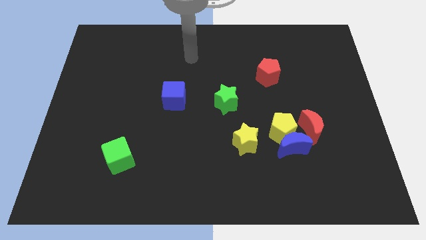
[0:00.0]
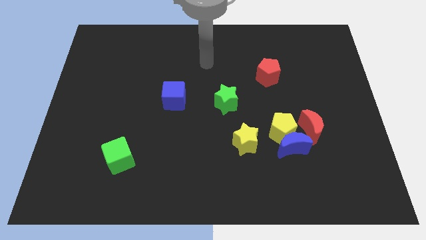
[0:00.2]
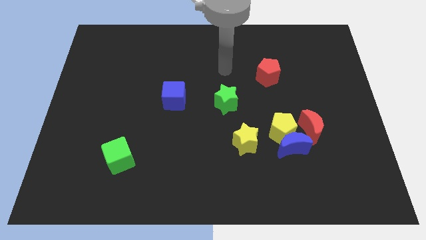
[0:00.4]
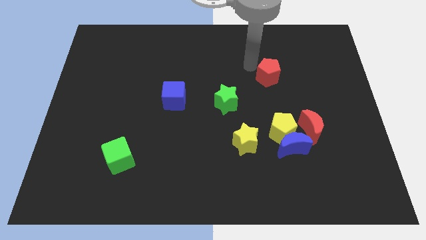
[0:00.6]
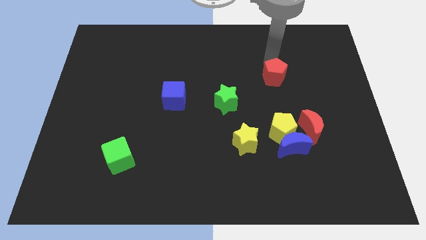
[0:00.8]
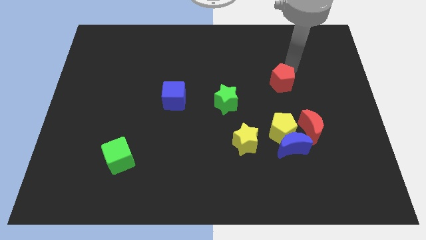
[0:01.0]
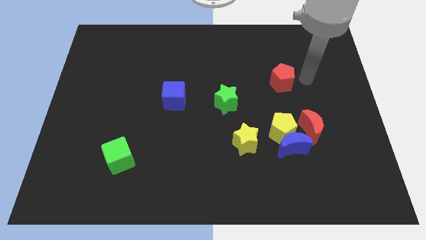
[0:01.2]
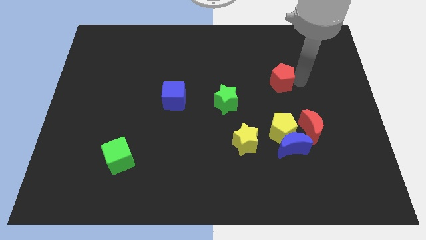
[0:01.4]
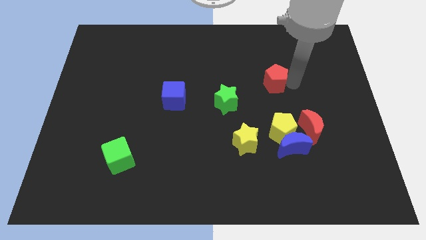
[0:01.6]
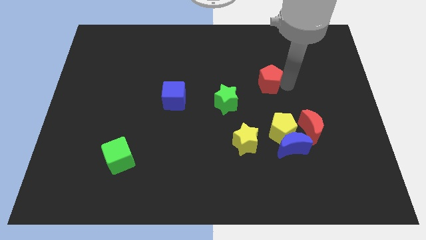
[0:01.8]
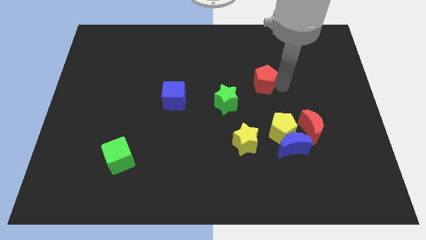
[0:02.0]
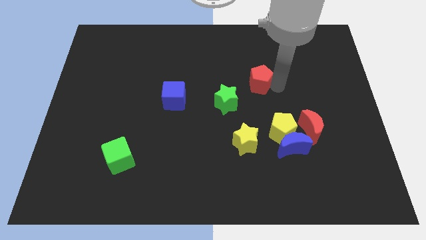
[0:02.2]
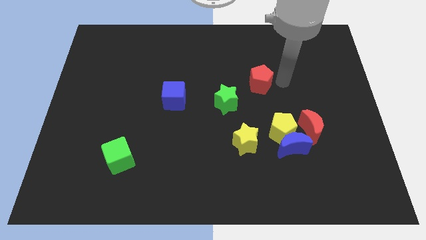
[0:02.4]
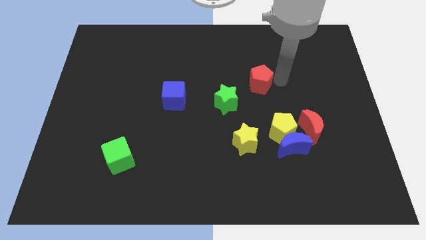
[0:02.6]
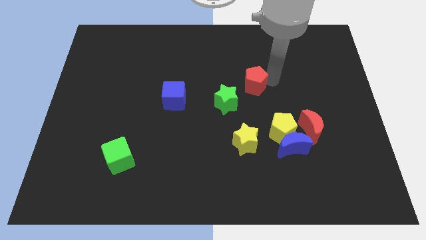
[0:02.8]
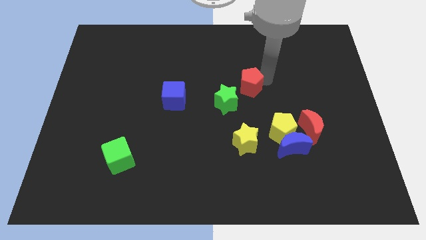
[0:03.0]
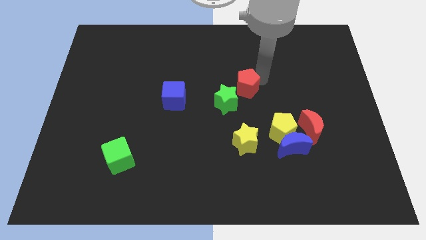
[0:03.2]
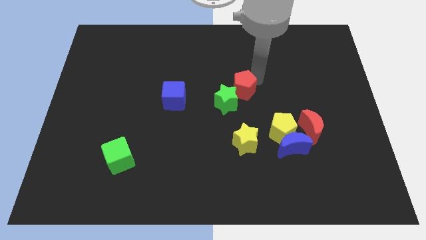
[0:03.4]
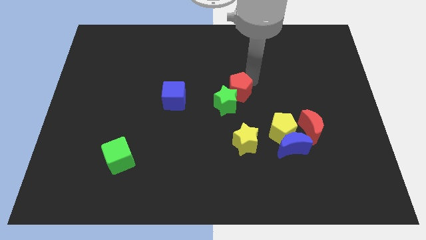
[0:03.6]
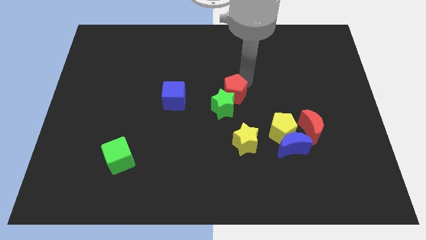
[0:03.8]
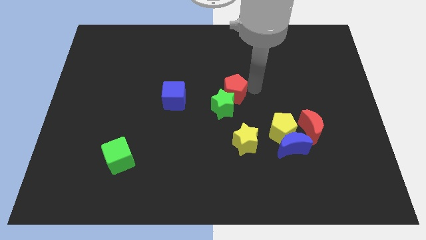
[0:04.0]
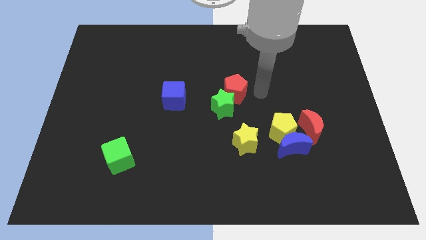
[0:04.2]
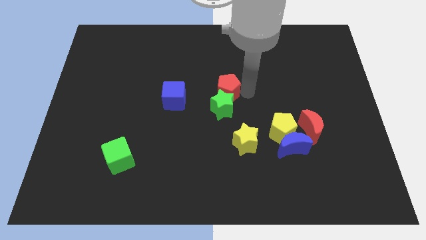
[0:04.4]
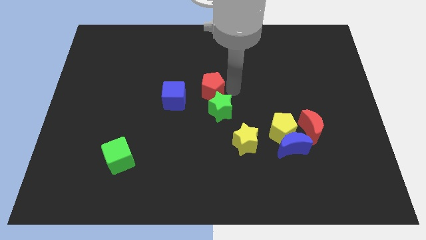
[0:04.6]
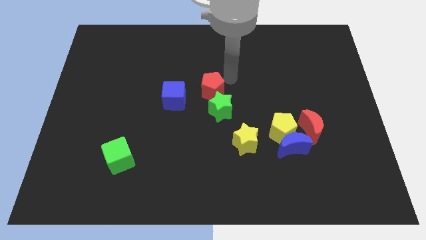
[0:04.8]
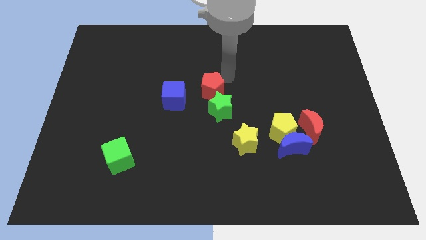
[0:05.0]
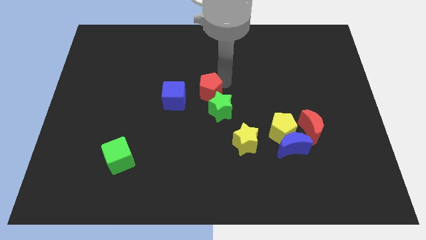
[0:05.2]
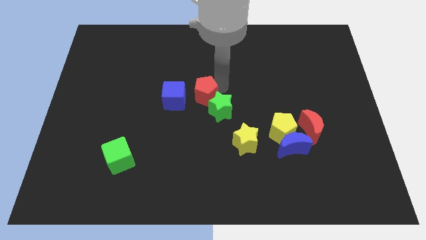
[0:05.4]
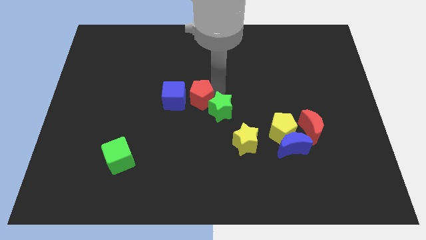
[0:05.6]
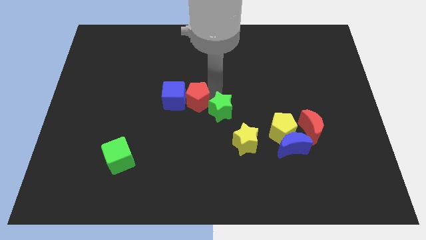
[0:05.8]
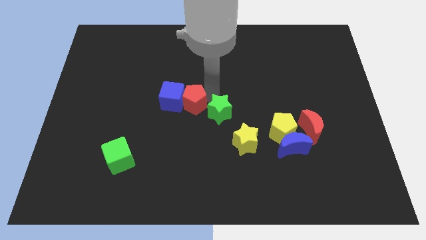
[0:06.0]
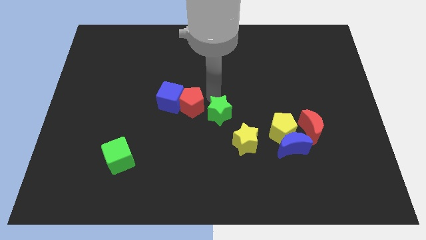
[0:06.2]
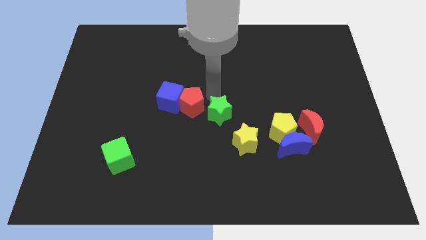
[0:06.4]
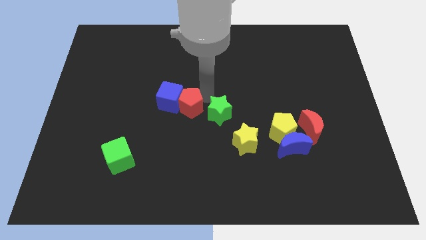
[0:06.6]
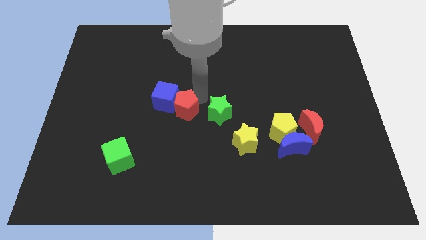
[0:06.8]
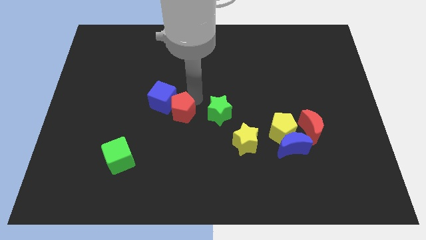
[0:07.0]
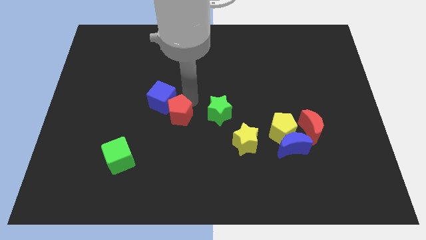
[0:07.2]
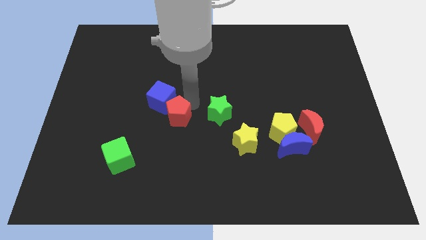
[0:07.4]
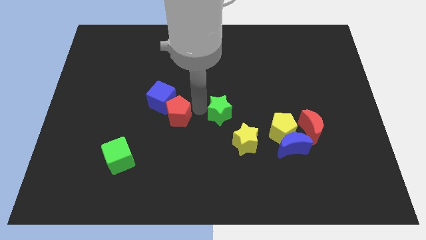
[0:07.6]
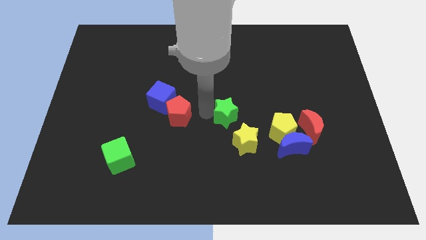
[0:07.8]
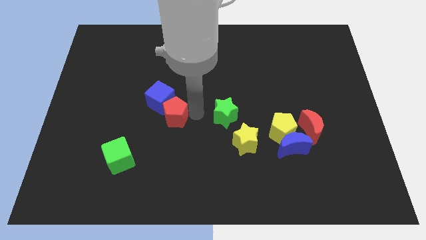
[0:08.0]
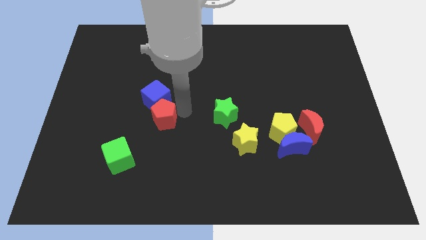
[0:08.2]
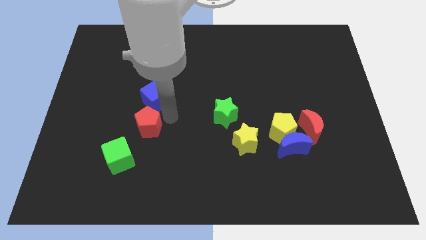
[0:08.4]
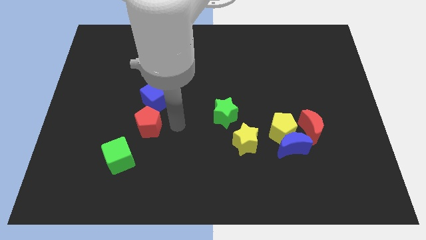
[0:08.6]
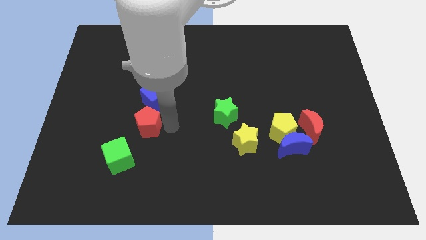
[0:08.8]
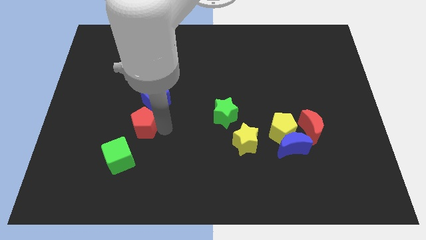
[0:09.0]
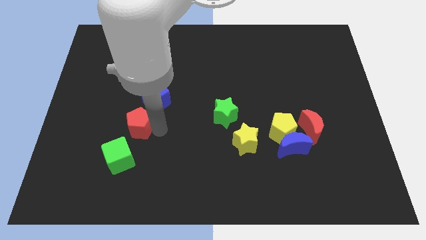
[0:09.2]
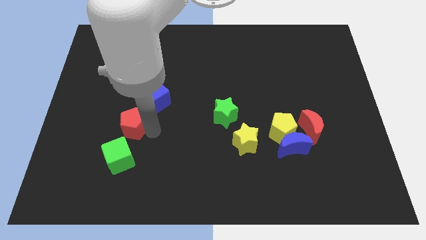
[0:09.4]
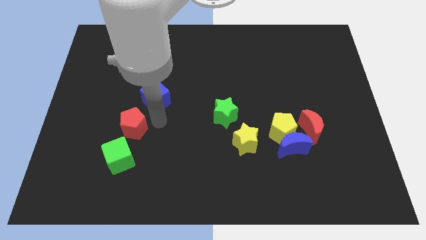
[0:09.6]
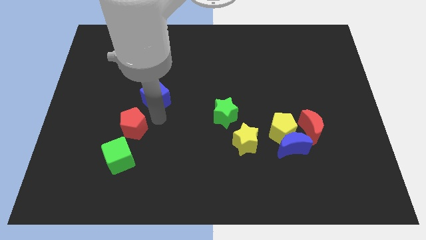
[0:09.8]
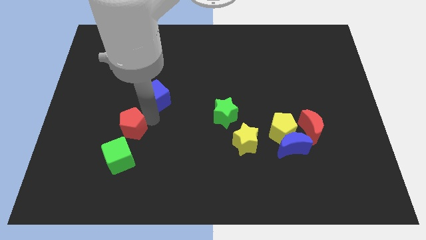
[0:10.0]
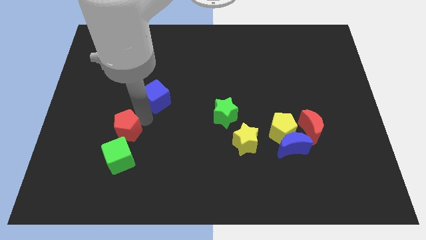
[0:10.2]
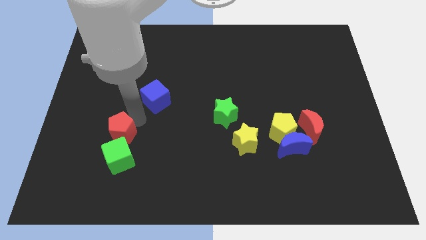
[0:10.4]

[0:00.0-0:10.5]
push the red pentagon to the top left of the green cube

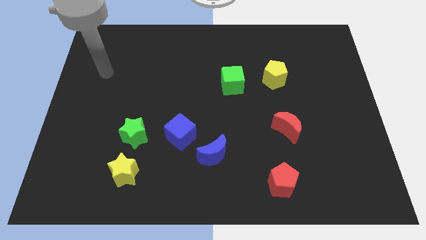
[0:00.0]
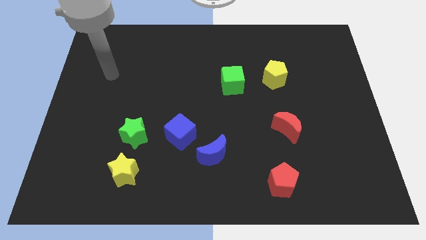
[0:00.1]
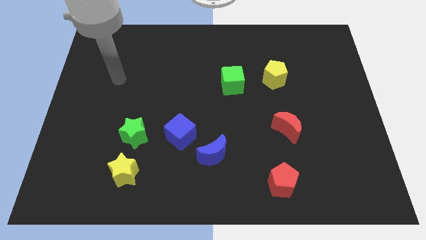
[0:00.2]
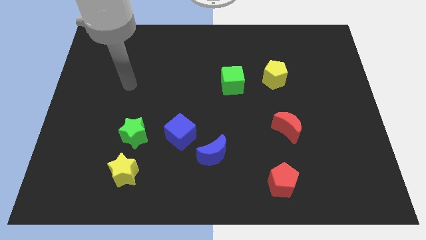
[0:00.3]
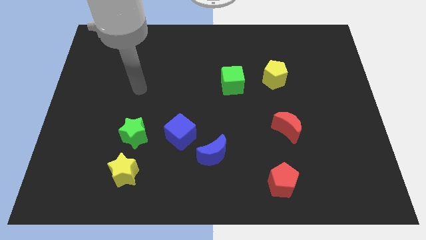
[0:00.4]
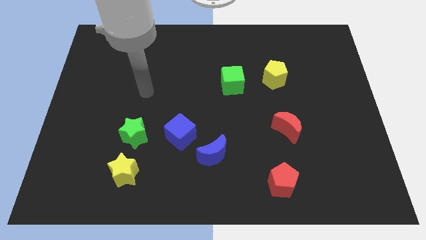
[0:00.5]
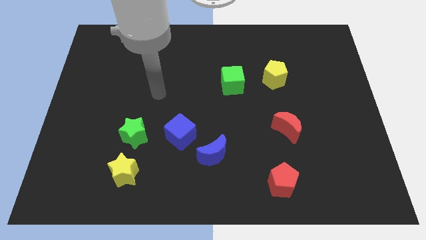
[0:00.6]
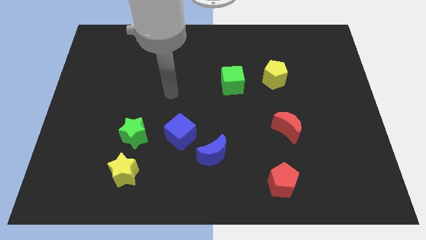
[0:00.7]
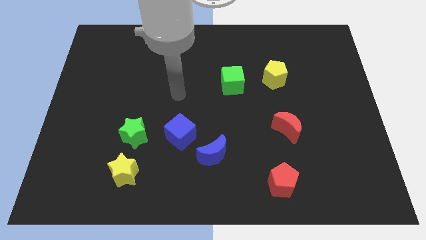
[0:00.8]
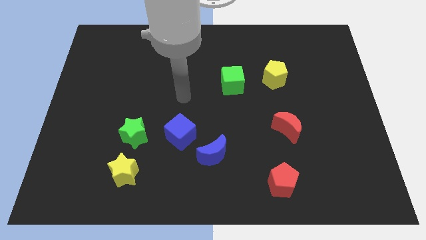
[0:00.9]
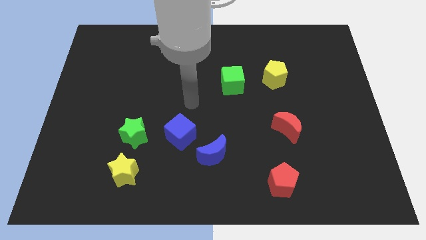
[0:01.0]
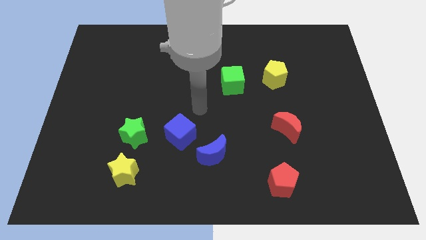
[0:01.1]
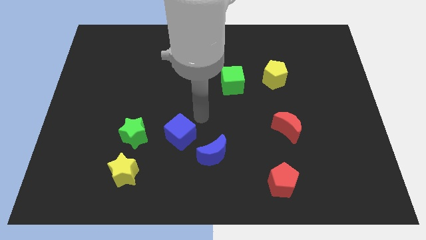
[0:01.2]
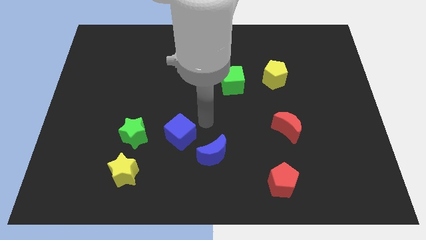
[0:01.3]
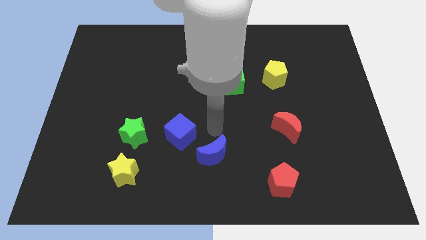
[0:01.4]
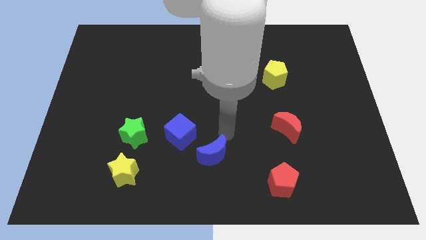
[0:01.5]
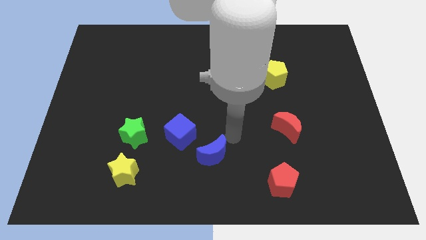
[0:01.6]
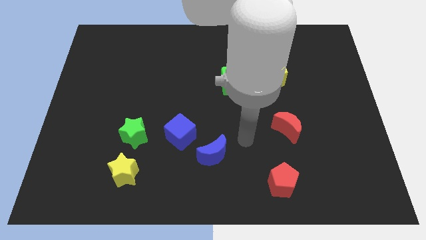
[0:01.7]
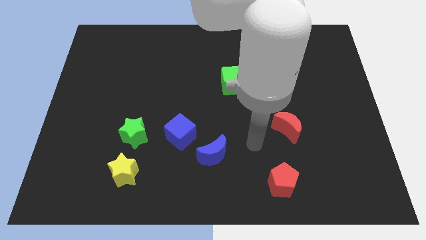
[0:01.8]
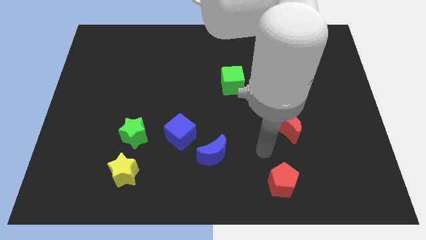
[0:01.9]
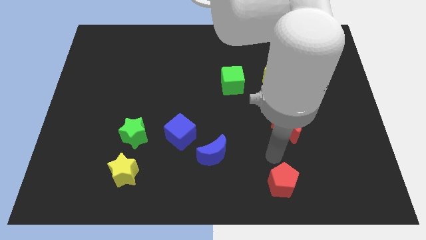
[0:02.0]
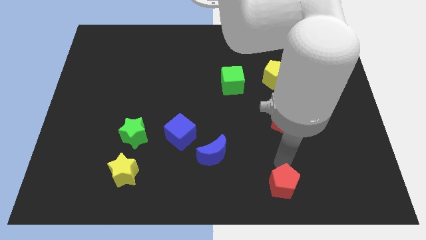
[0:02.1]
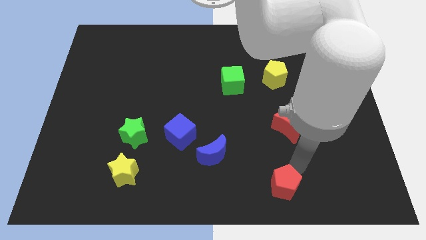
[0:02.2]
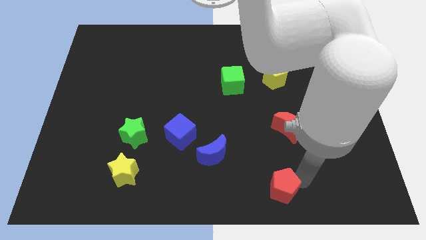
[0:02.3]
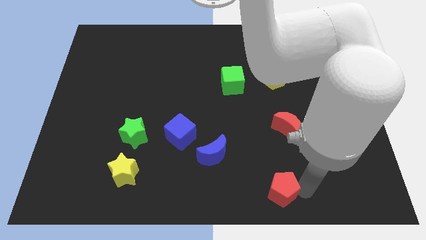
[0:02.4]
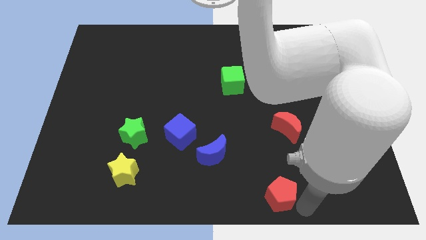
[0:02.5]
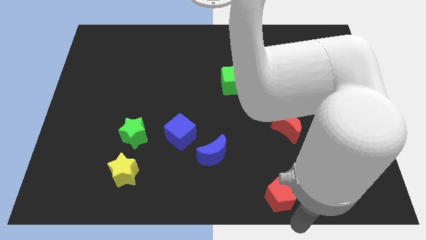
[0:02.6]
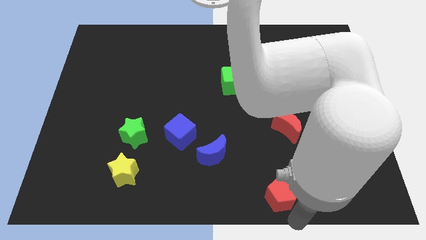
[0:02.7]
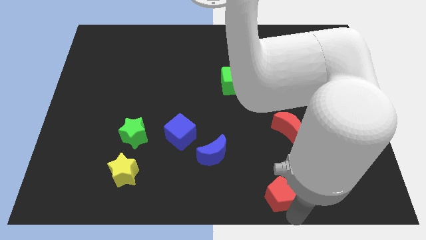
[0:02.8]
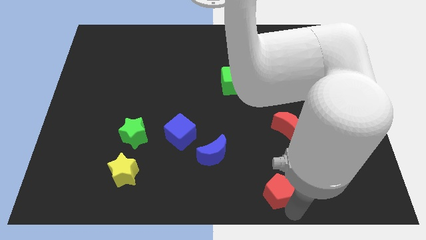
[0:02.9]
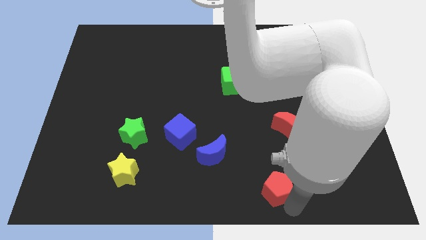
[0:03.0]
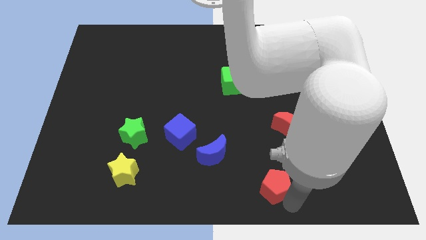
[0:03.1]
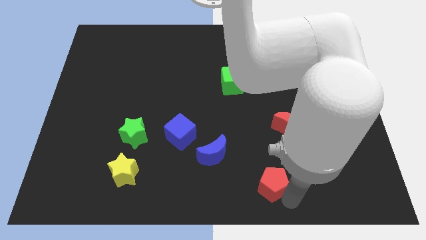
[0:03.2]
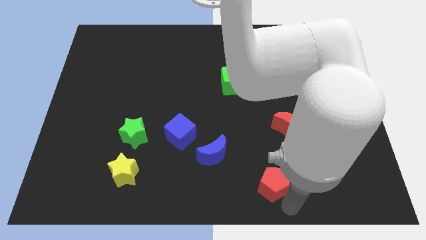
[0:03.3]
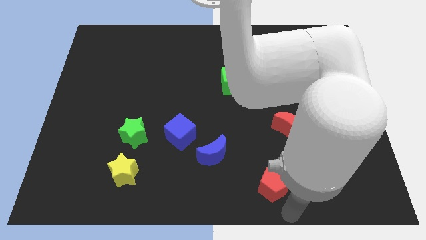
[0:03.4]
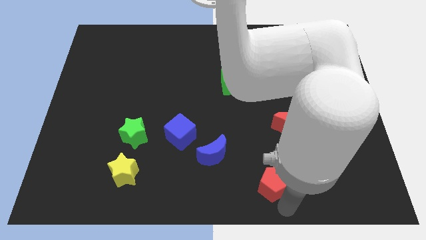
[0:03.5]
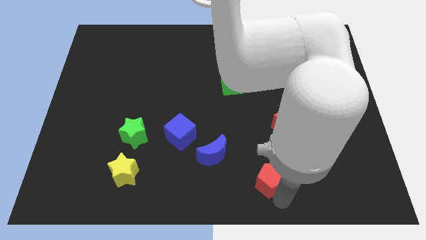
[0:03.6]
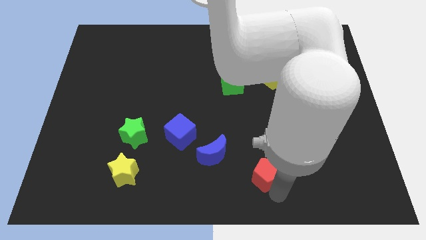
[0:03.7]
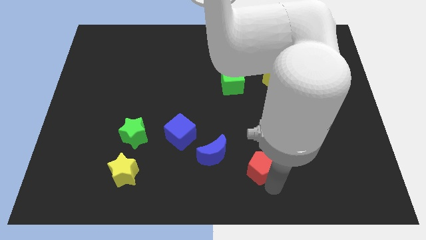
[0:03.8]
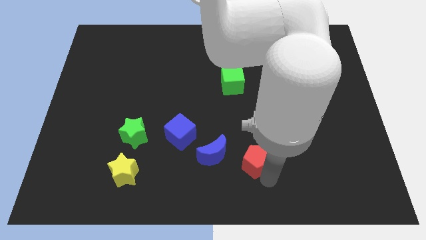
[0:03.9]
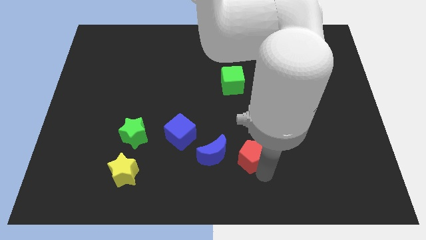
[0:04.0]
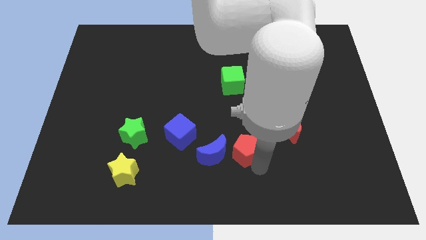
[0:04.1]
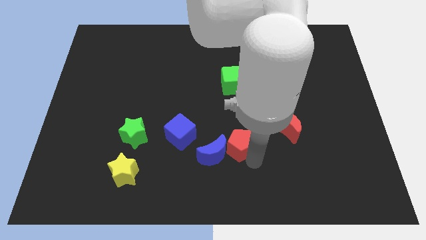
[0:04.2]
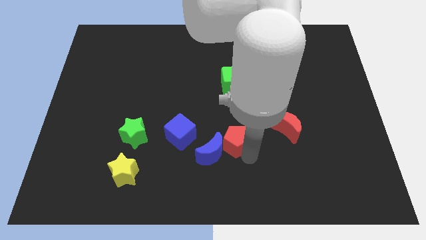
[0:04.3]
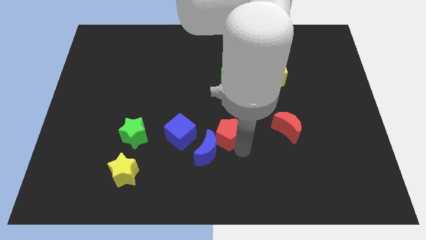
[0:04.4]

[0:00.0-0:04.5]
push the red pentagon to the top of the blue moon
